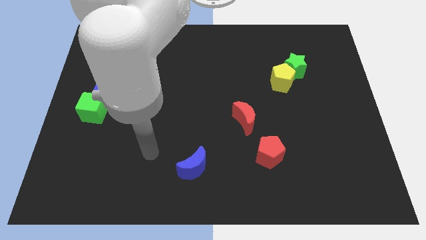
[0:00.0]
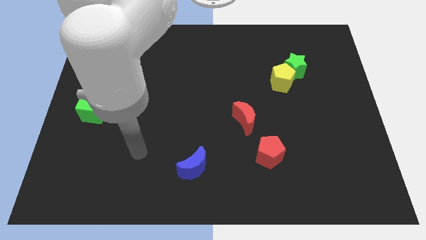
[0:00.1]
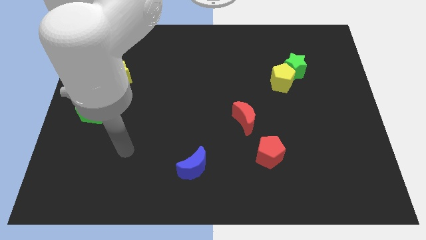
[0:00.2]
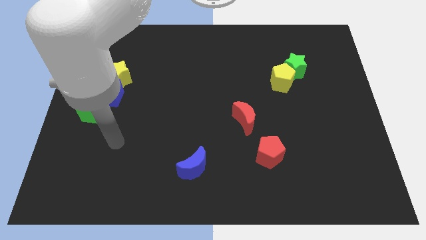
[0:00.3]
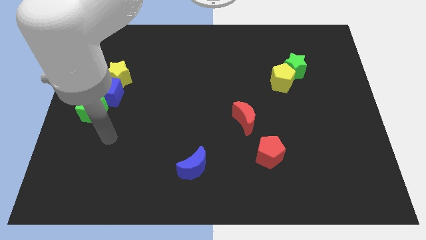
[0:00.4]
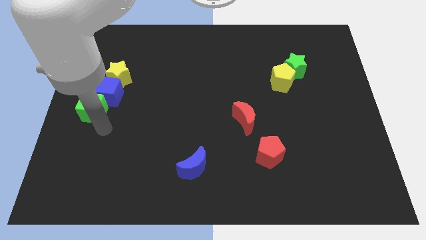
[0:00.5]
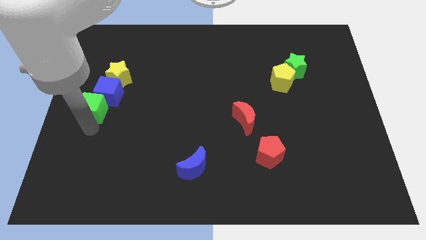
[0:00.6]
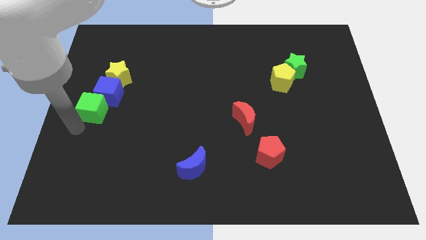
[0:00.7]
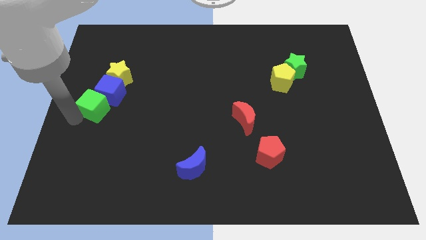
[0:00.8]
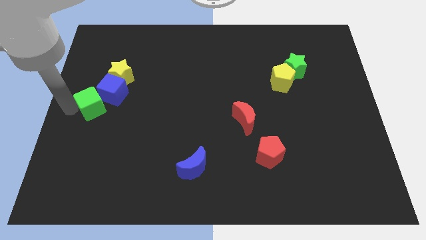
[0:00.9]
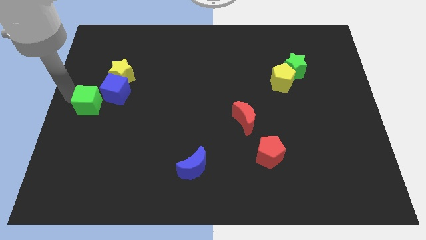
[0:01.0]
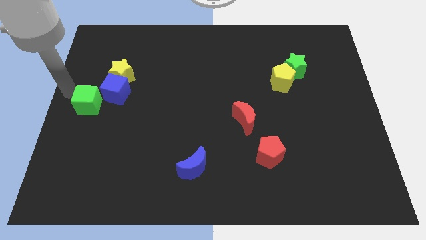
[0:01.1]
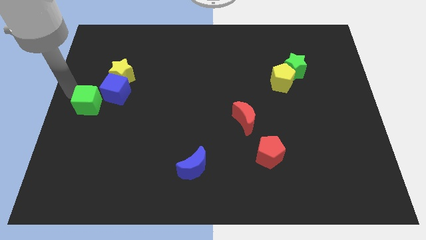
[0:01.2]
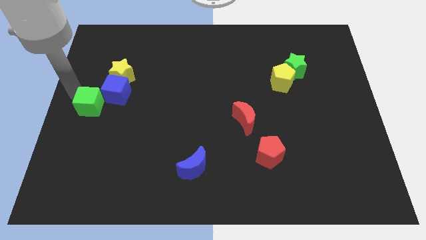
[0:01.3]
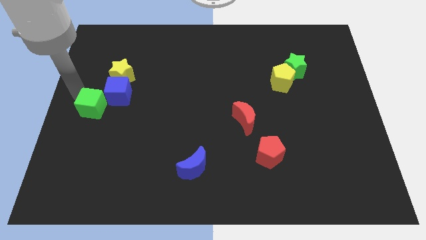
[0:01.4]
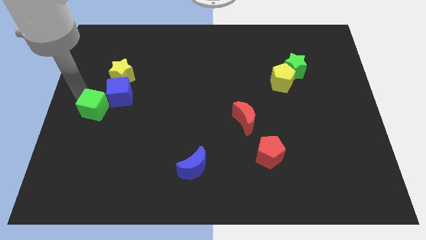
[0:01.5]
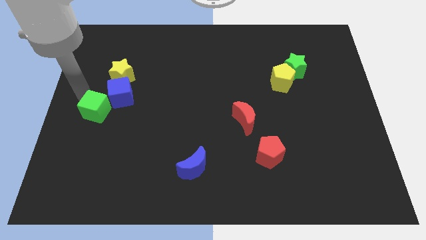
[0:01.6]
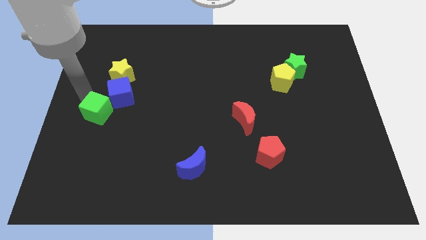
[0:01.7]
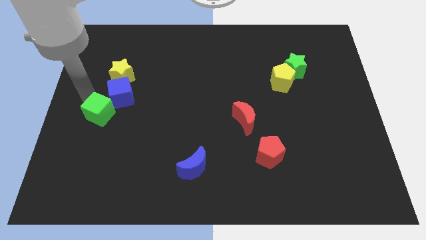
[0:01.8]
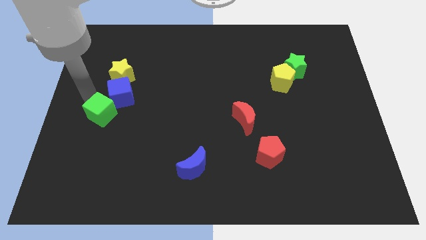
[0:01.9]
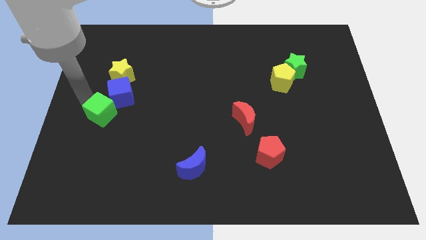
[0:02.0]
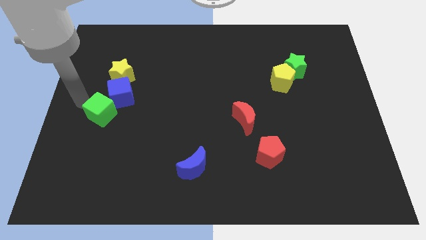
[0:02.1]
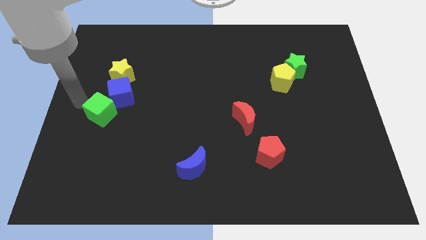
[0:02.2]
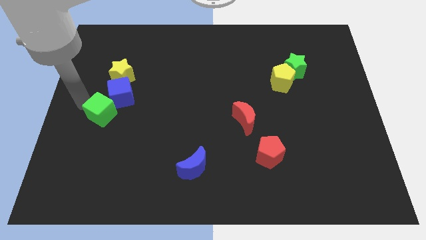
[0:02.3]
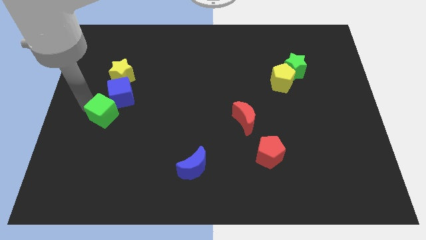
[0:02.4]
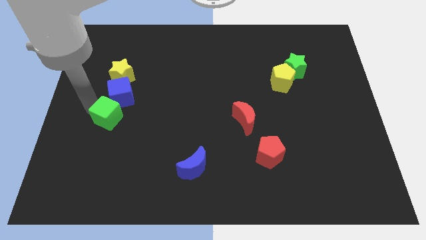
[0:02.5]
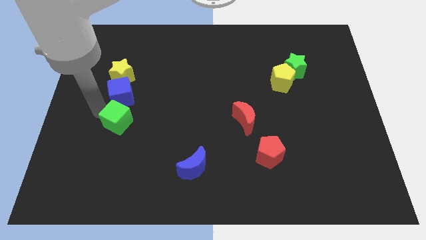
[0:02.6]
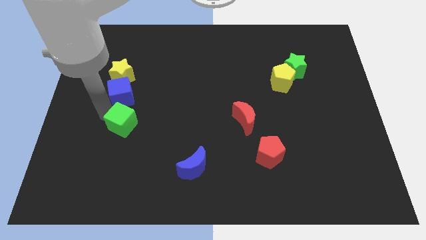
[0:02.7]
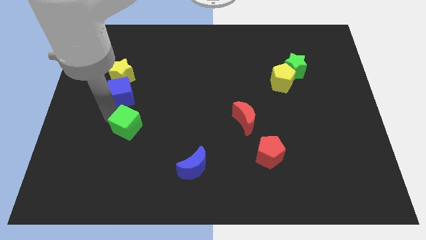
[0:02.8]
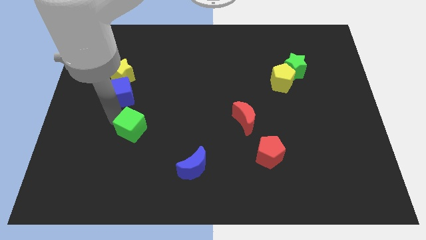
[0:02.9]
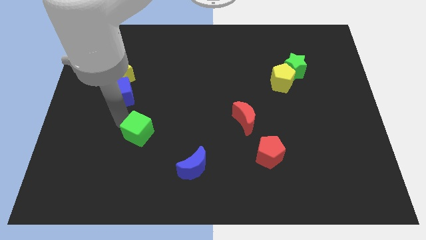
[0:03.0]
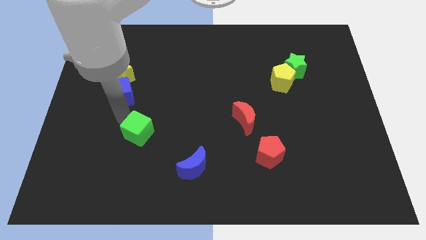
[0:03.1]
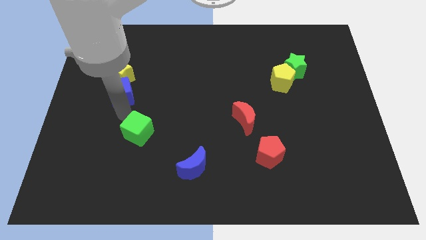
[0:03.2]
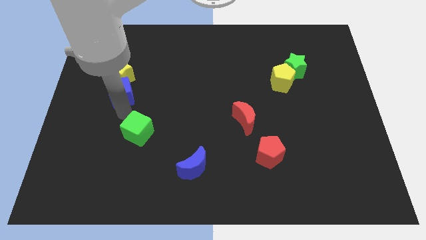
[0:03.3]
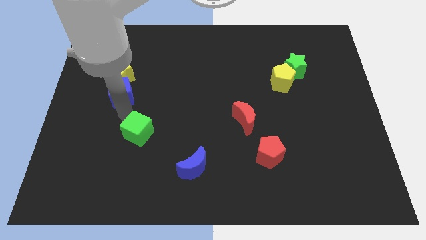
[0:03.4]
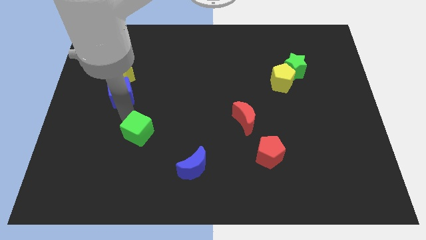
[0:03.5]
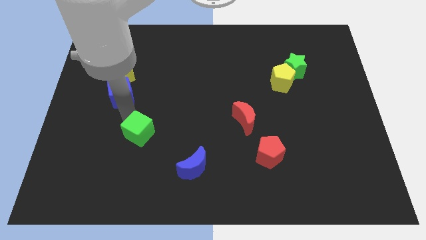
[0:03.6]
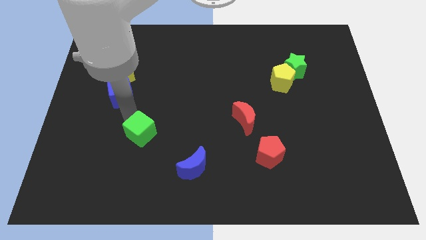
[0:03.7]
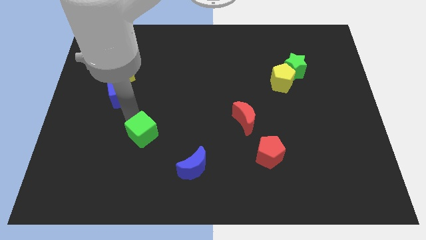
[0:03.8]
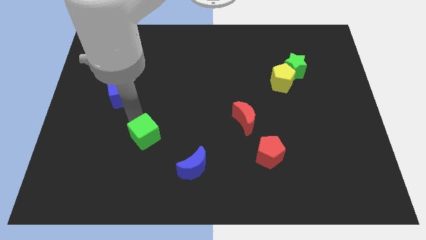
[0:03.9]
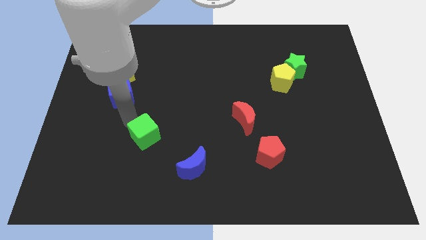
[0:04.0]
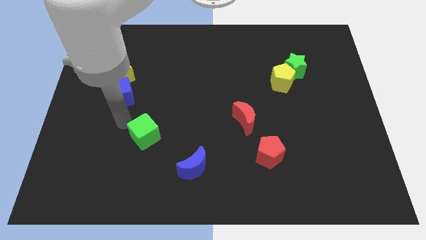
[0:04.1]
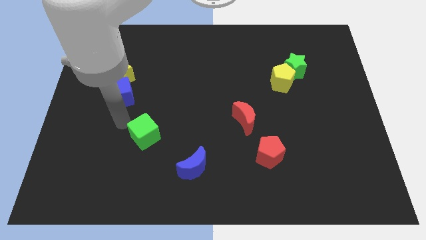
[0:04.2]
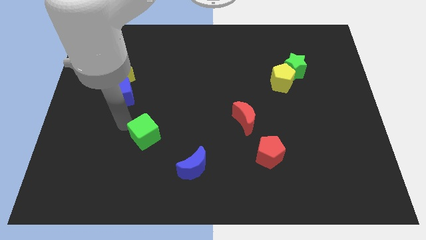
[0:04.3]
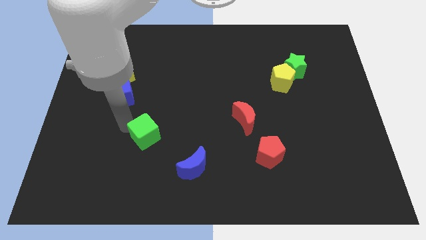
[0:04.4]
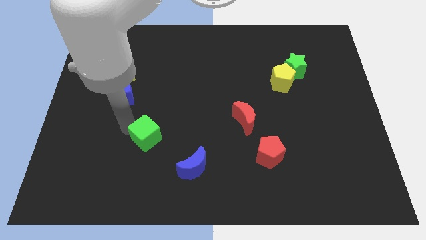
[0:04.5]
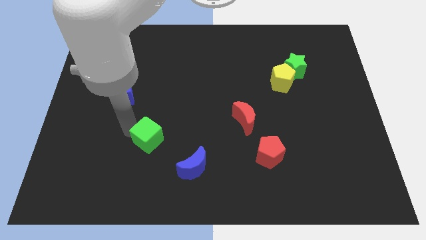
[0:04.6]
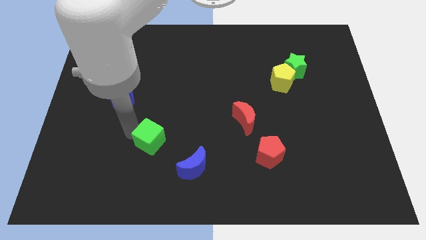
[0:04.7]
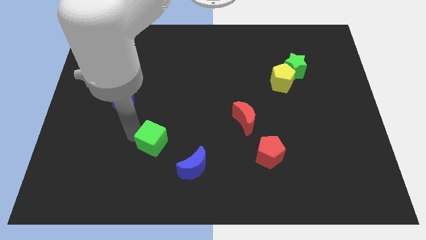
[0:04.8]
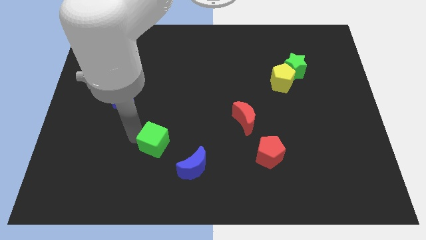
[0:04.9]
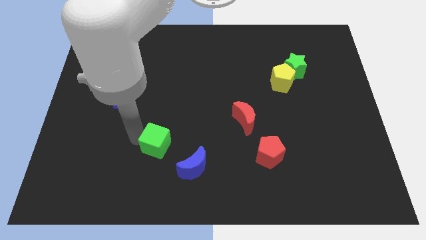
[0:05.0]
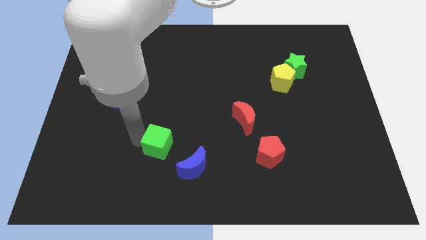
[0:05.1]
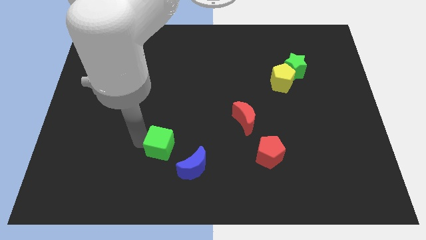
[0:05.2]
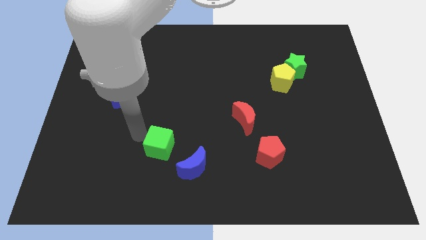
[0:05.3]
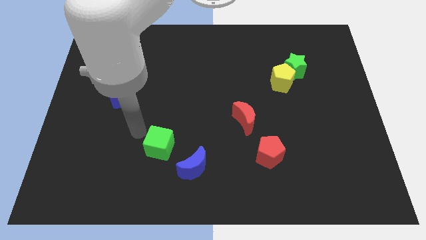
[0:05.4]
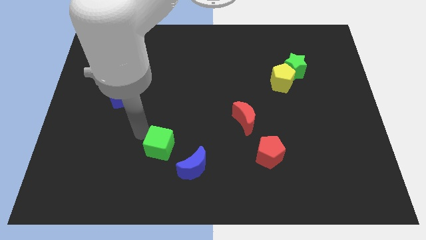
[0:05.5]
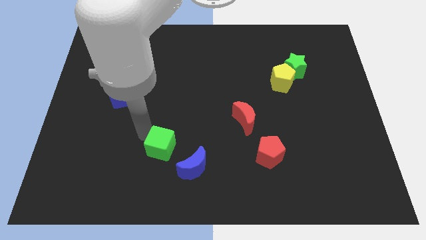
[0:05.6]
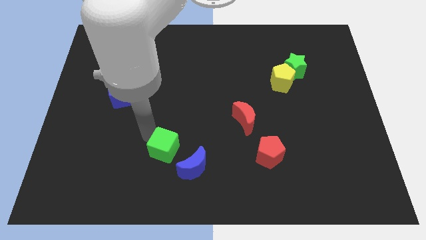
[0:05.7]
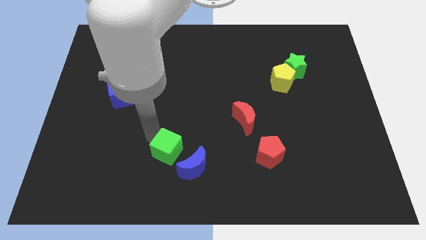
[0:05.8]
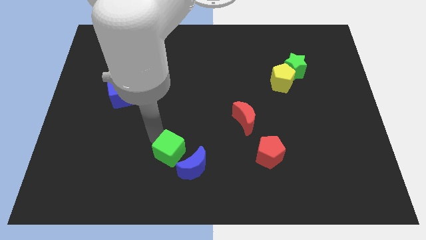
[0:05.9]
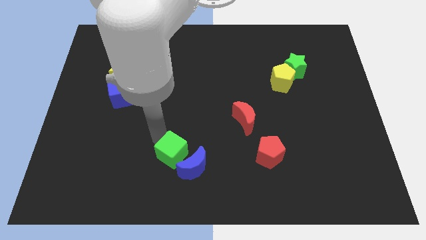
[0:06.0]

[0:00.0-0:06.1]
slide the green cube towards the blue moon

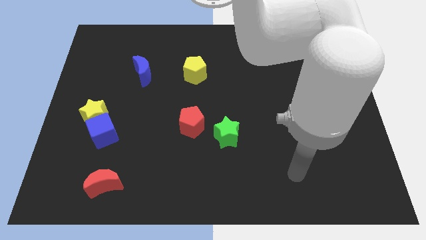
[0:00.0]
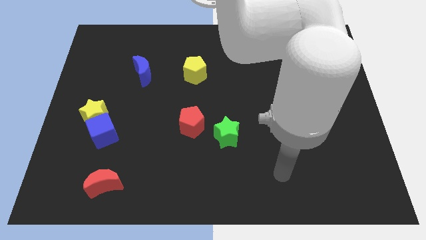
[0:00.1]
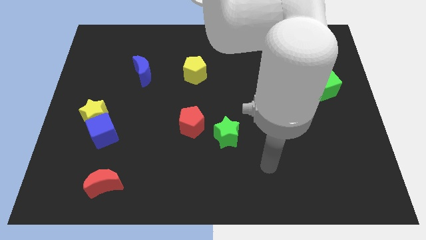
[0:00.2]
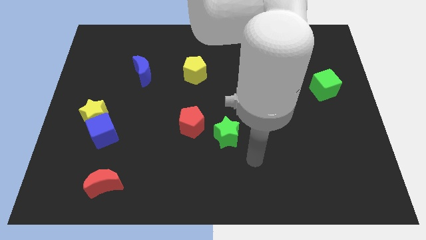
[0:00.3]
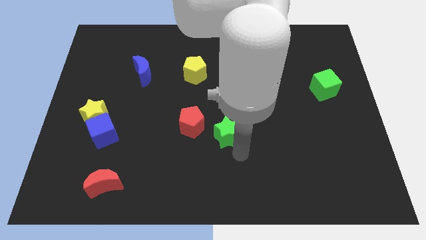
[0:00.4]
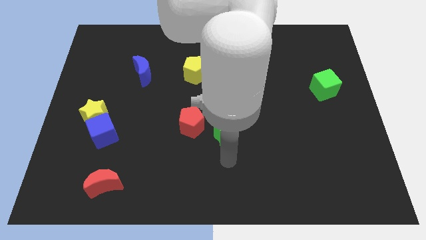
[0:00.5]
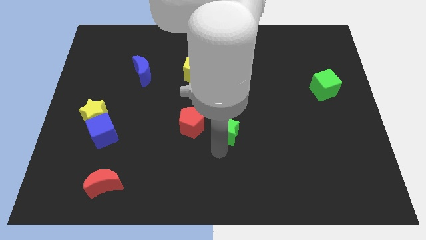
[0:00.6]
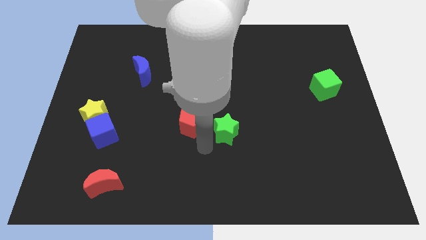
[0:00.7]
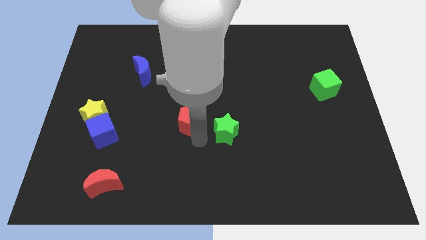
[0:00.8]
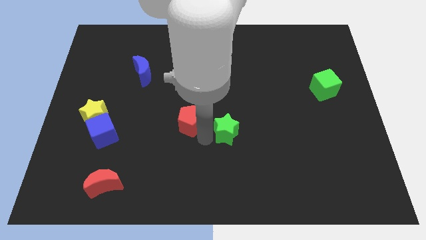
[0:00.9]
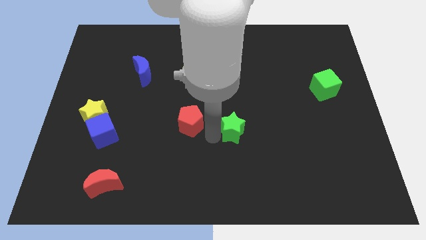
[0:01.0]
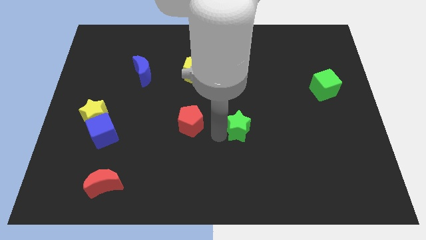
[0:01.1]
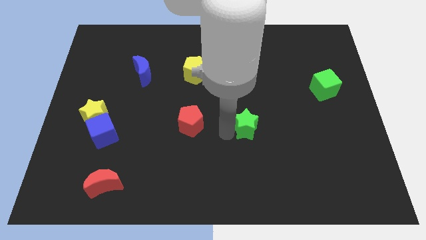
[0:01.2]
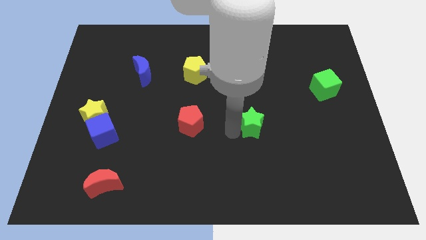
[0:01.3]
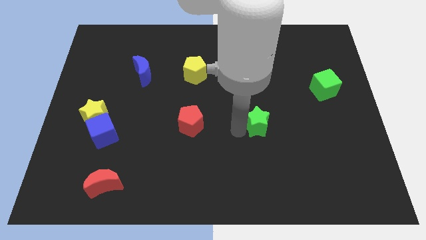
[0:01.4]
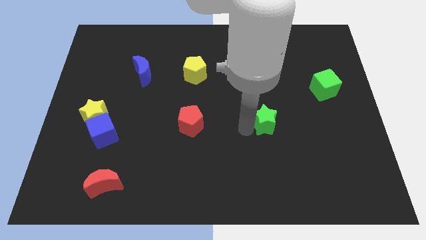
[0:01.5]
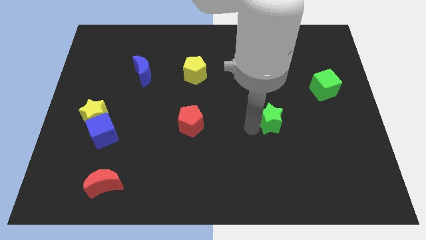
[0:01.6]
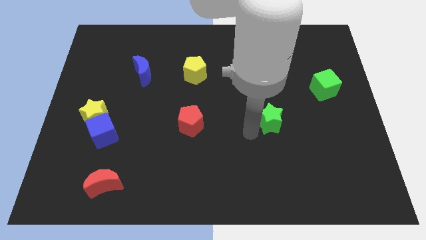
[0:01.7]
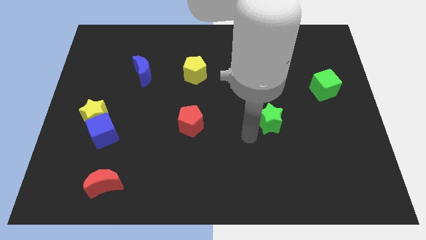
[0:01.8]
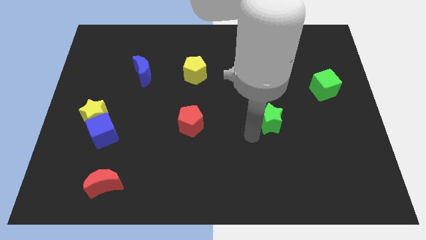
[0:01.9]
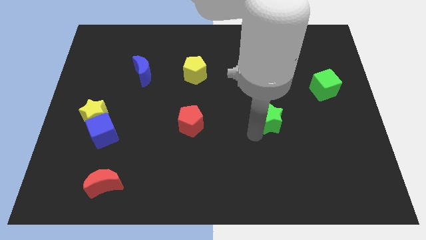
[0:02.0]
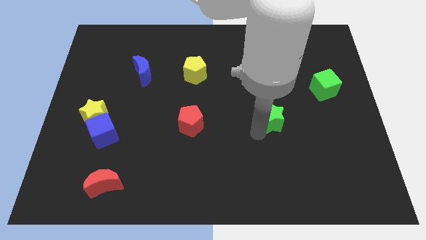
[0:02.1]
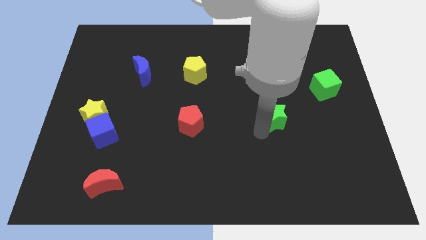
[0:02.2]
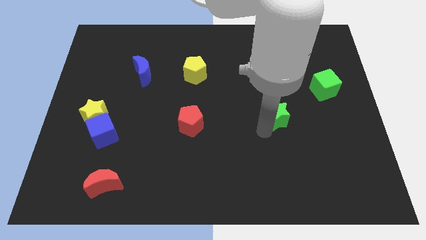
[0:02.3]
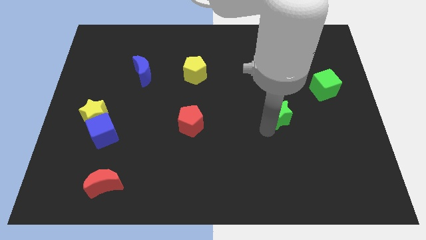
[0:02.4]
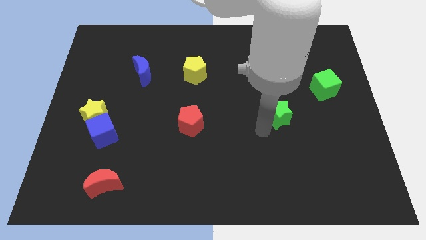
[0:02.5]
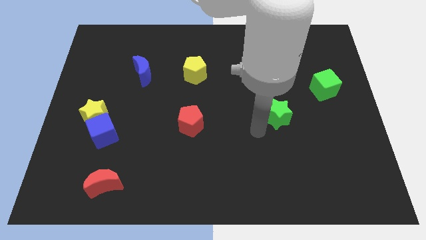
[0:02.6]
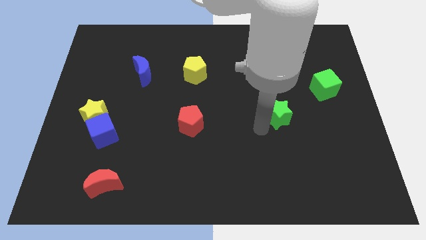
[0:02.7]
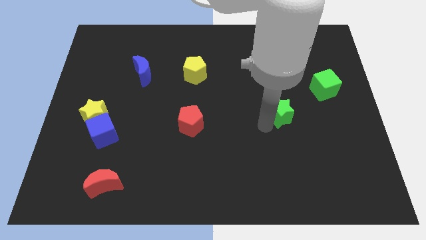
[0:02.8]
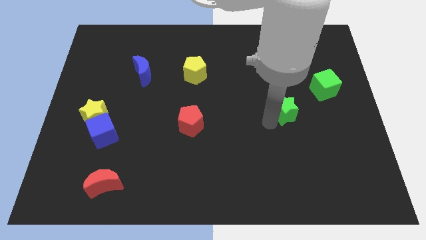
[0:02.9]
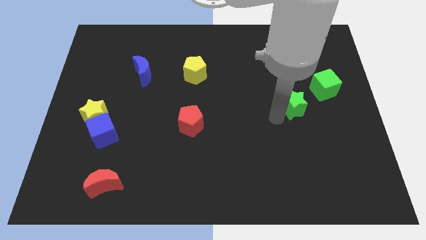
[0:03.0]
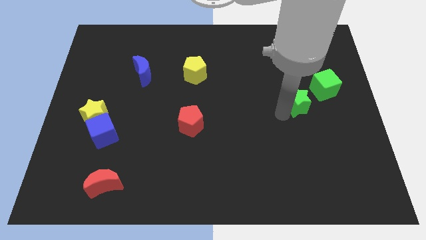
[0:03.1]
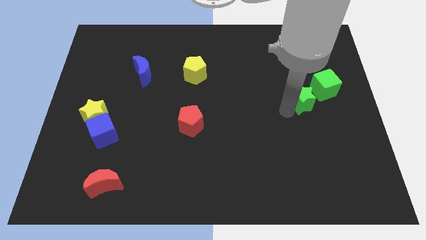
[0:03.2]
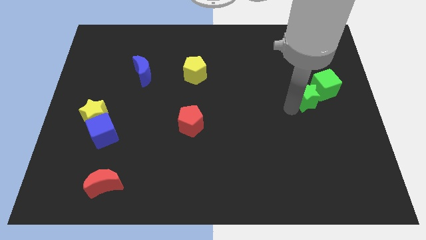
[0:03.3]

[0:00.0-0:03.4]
move the green star close to the green cube
